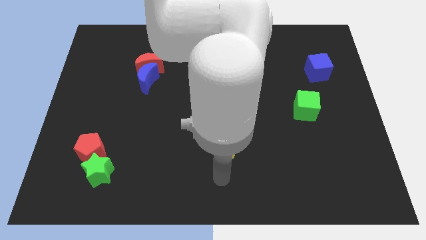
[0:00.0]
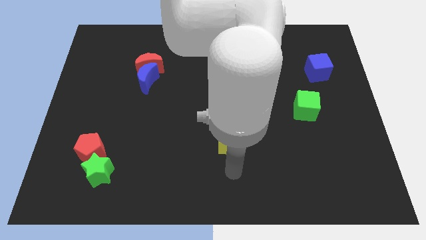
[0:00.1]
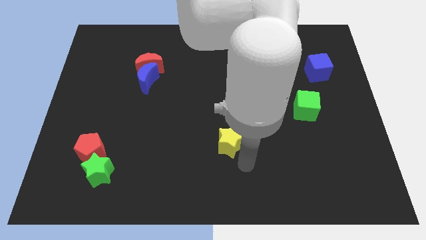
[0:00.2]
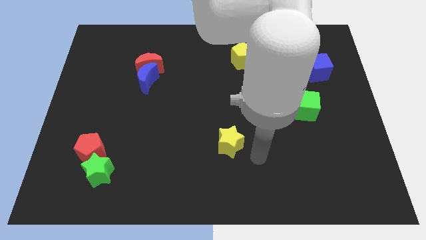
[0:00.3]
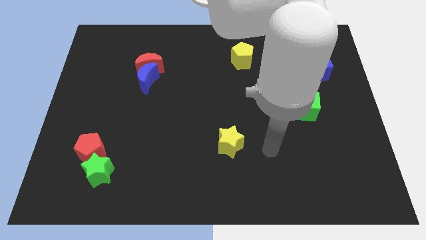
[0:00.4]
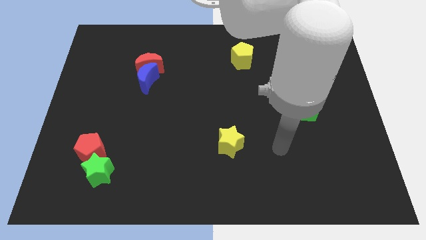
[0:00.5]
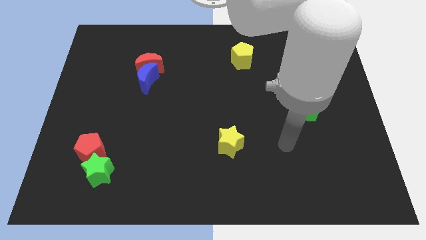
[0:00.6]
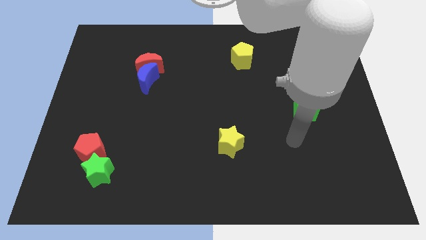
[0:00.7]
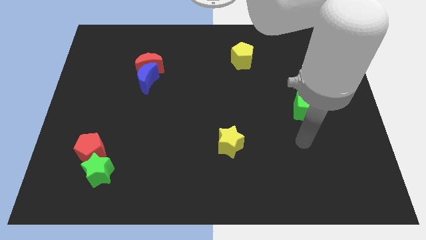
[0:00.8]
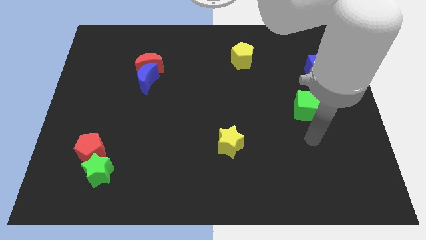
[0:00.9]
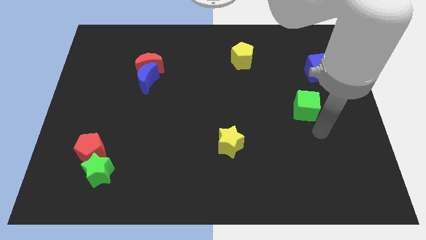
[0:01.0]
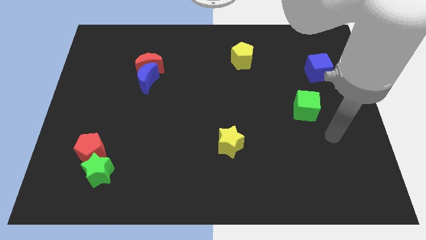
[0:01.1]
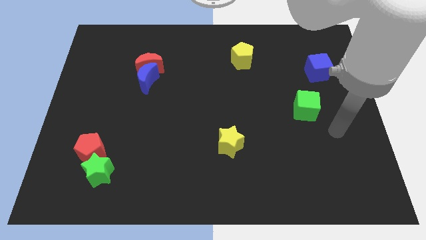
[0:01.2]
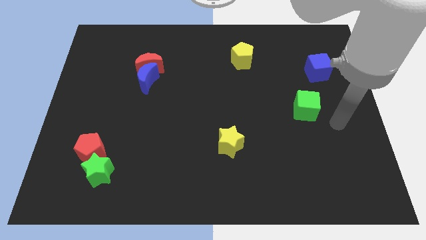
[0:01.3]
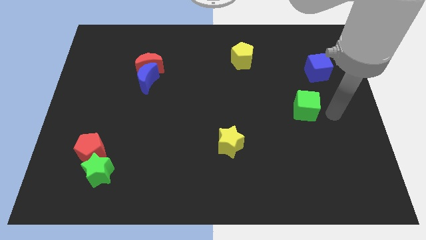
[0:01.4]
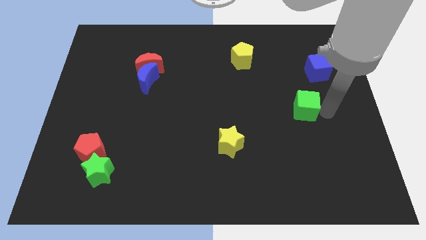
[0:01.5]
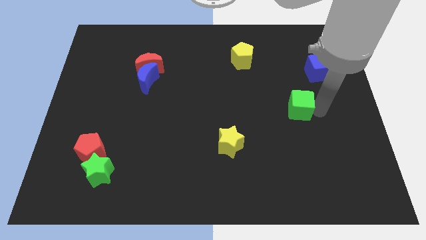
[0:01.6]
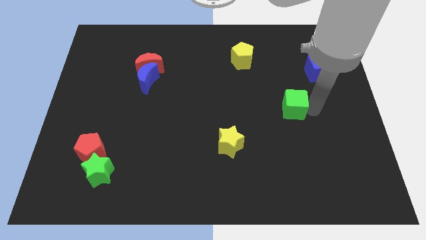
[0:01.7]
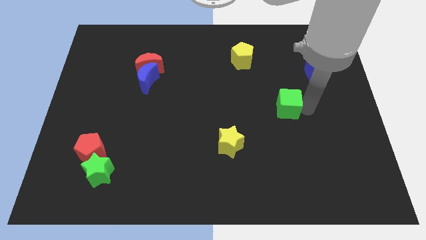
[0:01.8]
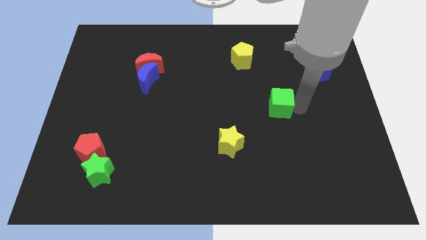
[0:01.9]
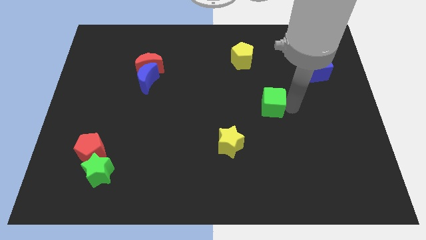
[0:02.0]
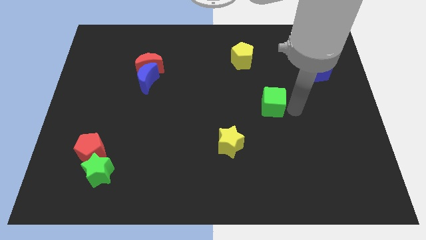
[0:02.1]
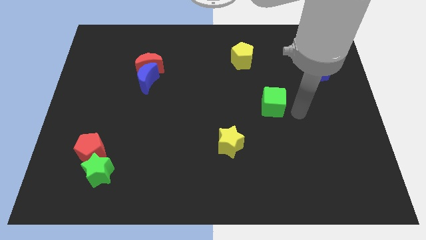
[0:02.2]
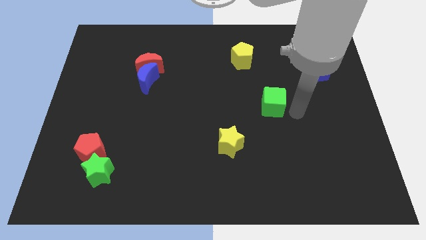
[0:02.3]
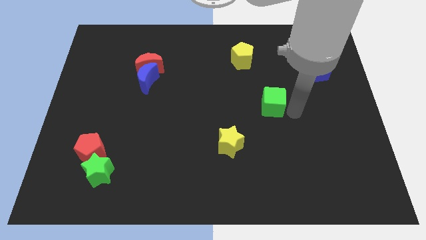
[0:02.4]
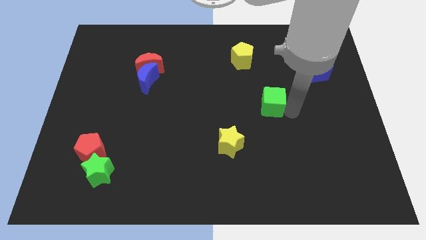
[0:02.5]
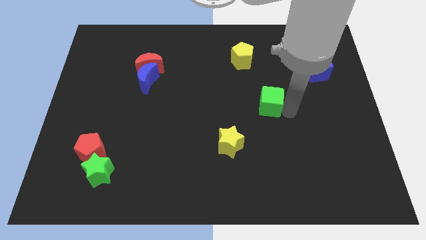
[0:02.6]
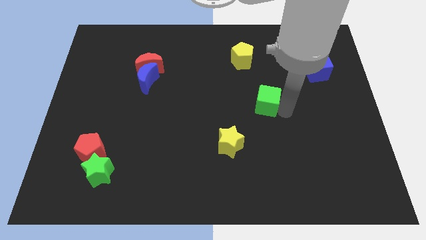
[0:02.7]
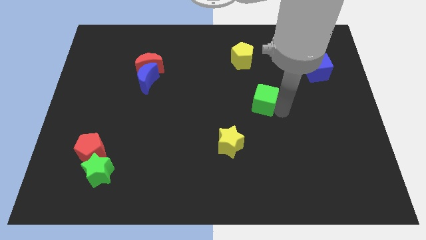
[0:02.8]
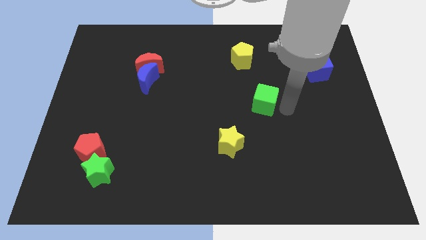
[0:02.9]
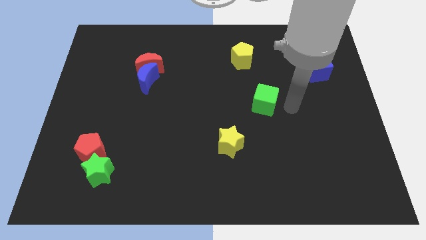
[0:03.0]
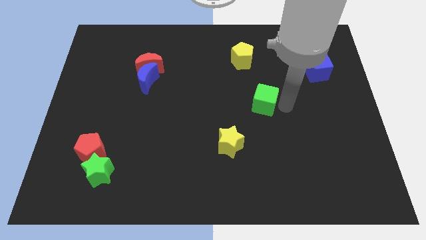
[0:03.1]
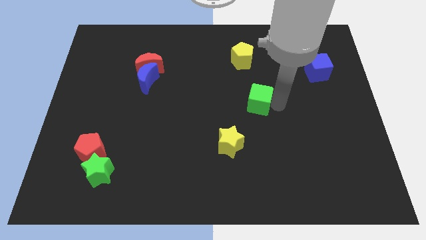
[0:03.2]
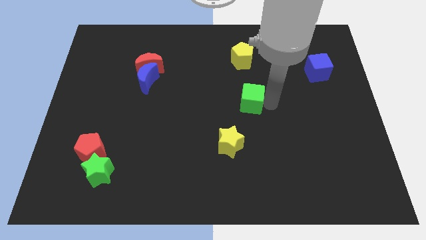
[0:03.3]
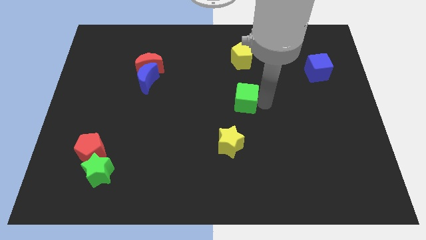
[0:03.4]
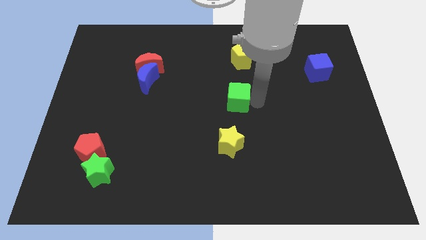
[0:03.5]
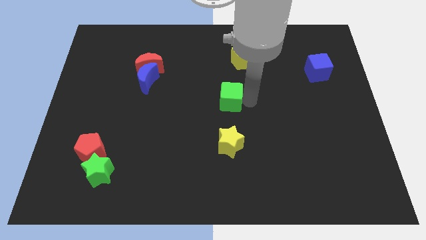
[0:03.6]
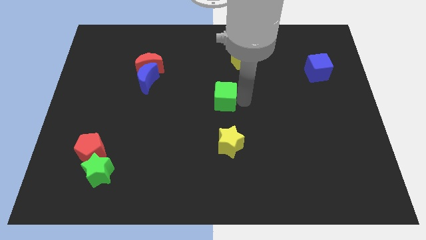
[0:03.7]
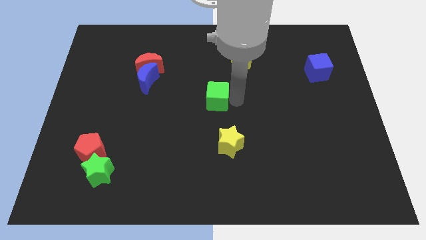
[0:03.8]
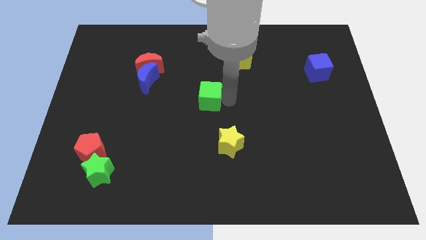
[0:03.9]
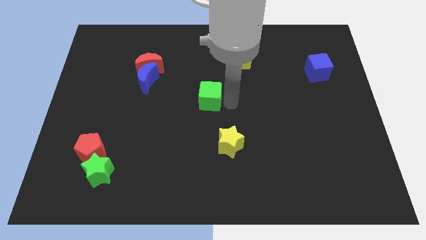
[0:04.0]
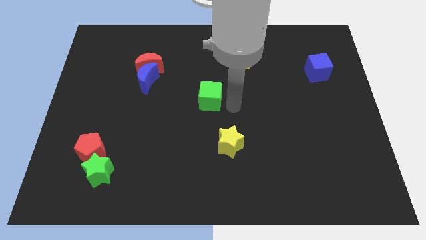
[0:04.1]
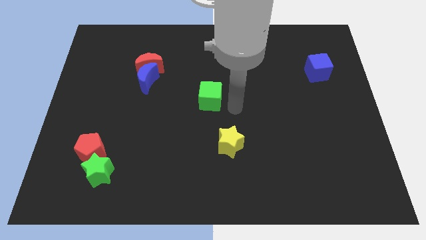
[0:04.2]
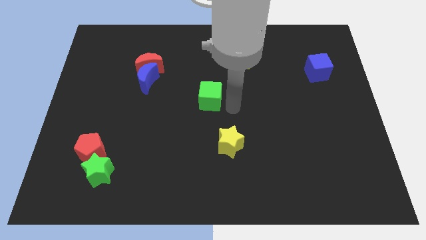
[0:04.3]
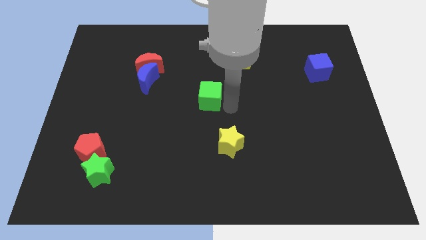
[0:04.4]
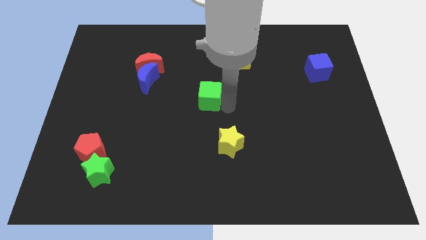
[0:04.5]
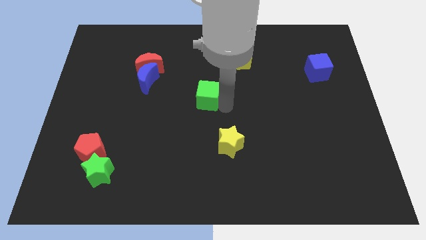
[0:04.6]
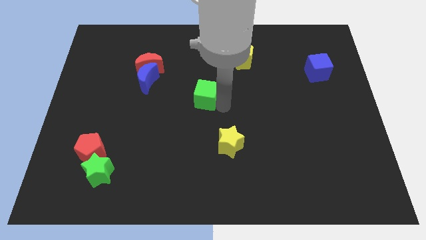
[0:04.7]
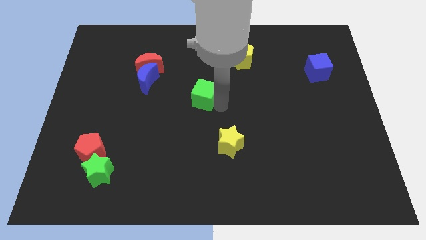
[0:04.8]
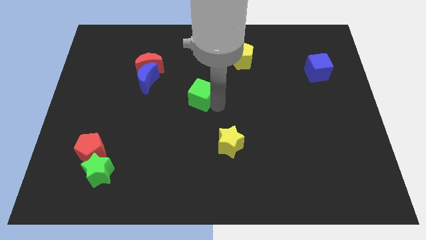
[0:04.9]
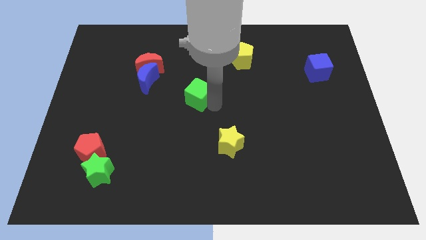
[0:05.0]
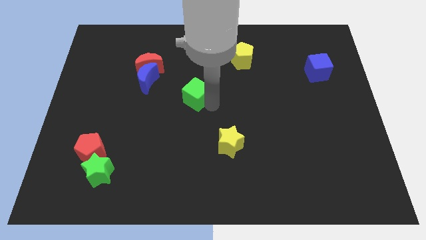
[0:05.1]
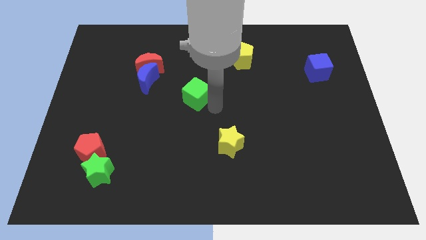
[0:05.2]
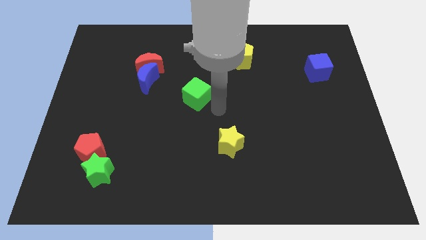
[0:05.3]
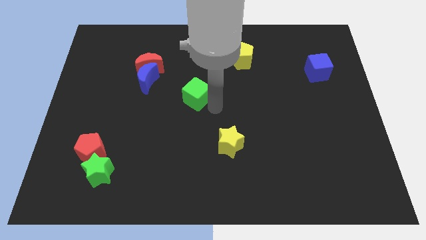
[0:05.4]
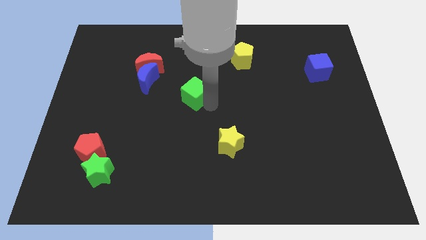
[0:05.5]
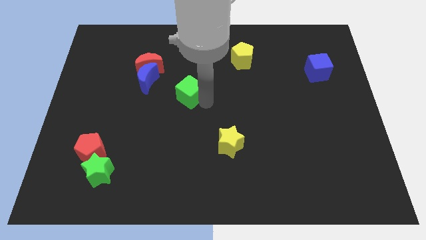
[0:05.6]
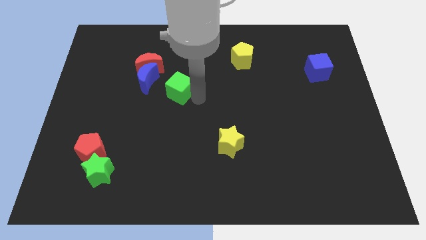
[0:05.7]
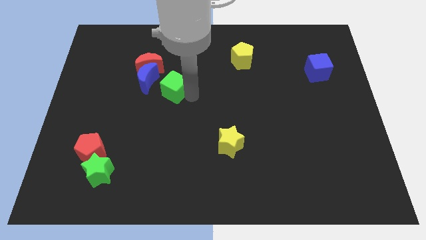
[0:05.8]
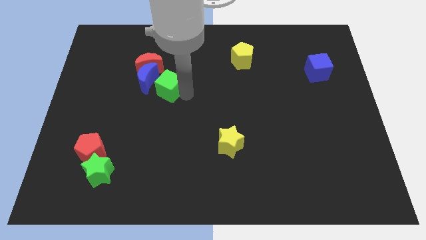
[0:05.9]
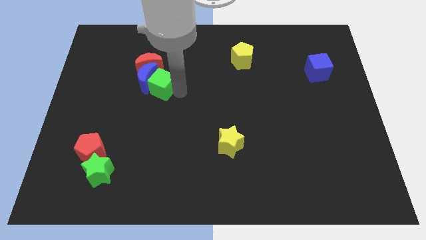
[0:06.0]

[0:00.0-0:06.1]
move the green cube to the blue moon

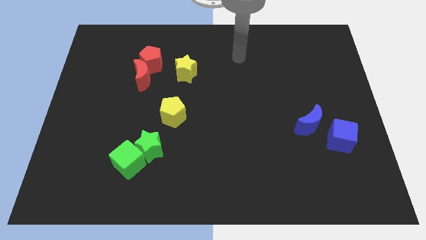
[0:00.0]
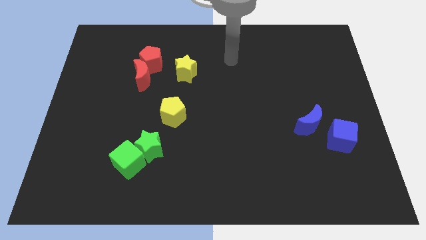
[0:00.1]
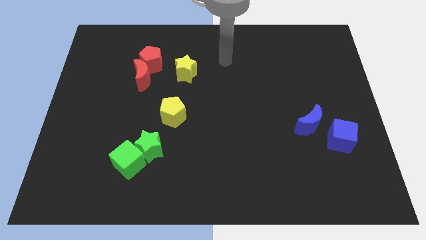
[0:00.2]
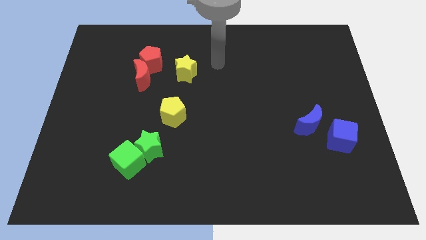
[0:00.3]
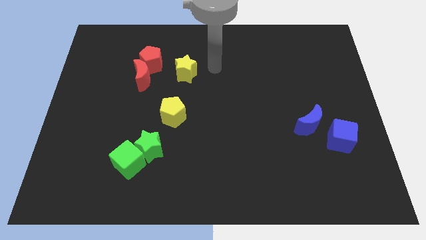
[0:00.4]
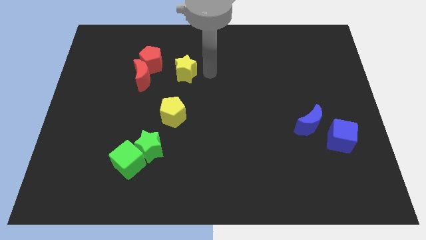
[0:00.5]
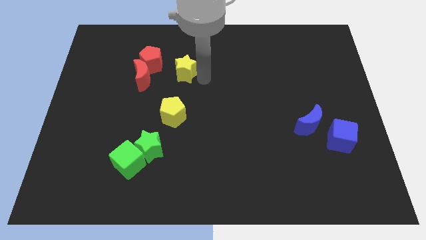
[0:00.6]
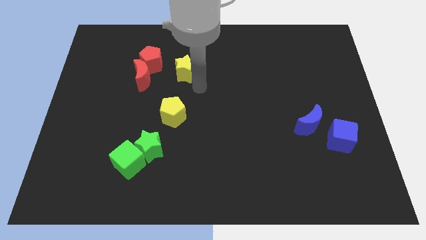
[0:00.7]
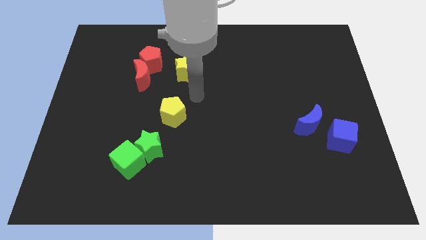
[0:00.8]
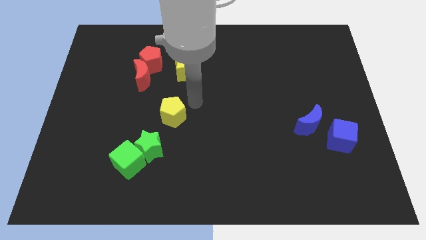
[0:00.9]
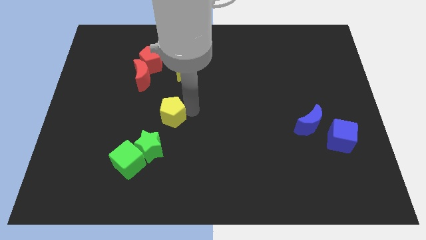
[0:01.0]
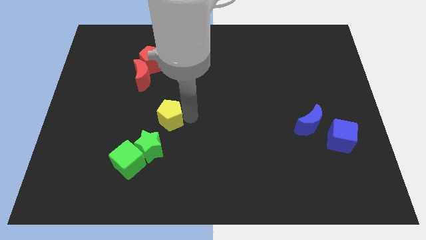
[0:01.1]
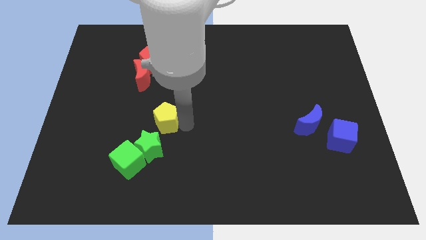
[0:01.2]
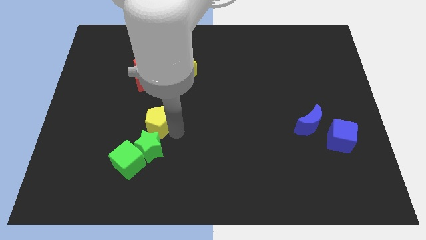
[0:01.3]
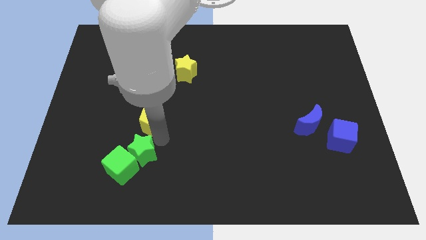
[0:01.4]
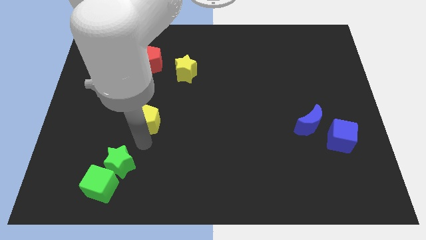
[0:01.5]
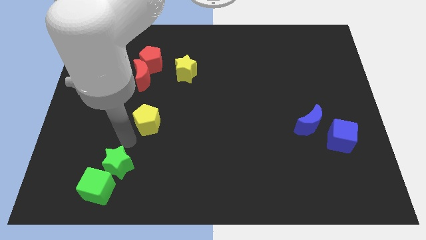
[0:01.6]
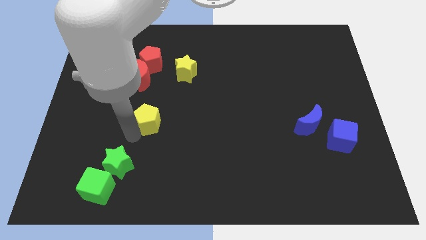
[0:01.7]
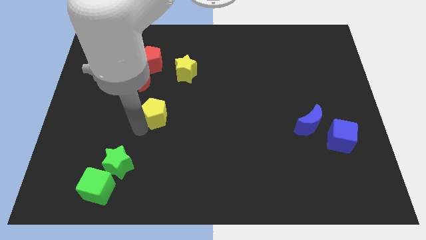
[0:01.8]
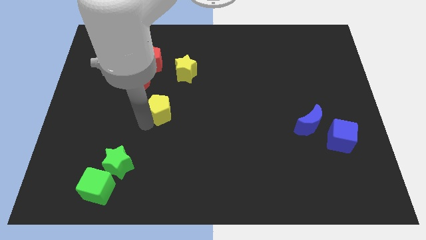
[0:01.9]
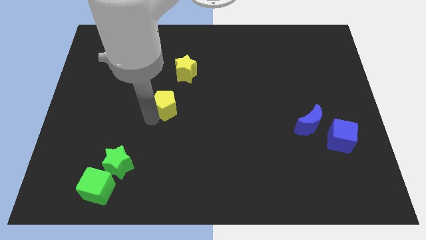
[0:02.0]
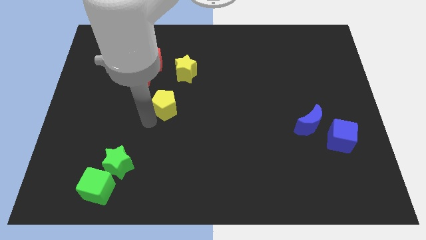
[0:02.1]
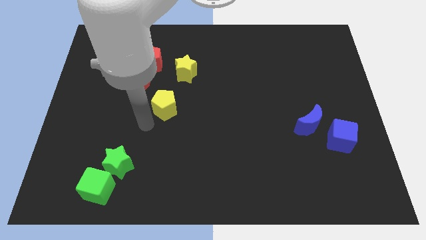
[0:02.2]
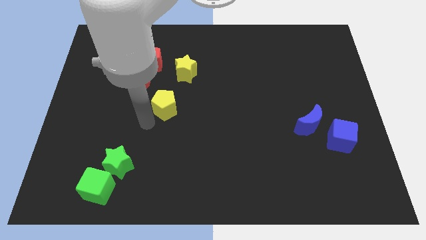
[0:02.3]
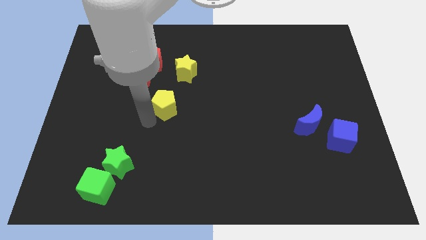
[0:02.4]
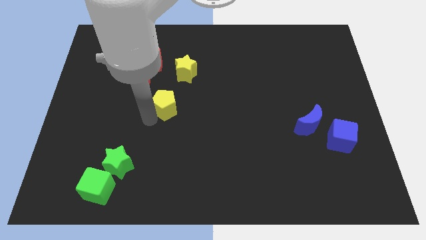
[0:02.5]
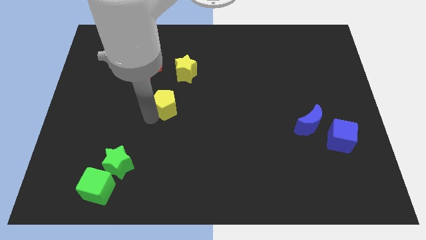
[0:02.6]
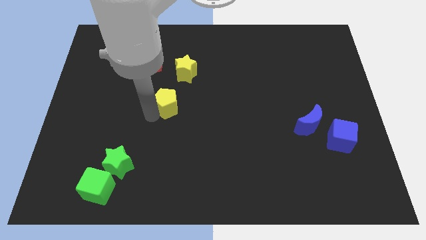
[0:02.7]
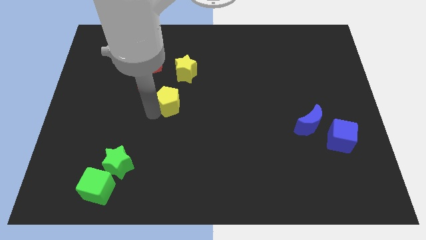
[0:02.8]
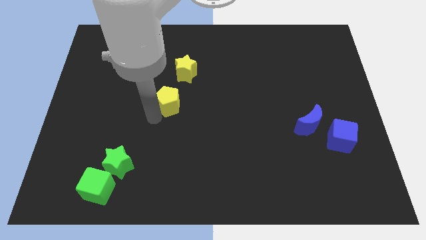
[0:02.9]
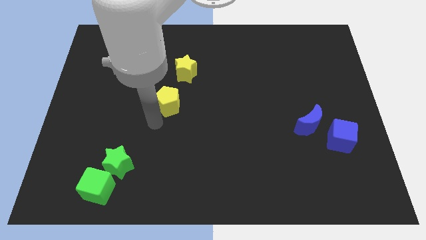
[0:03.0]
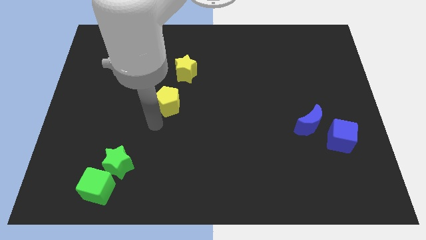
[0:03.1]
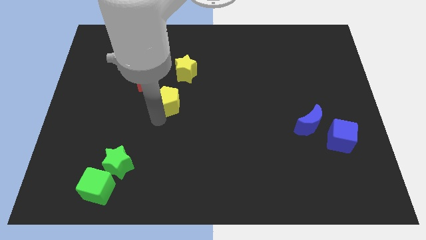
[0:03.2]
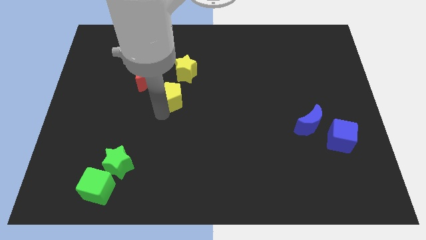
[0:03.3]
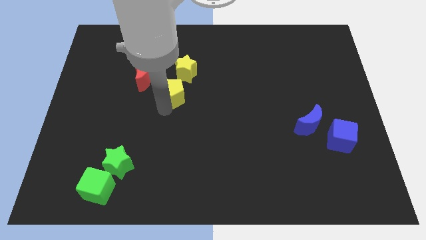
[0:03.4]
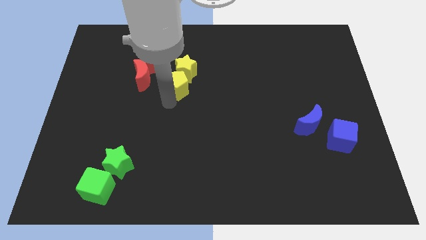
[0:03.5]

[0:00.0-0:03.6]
put the yellow pentagon next to the yellow star
